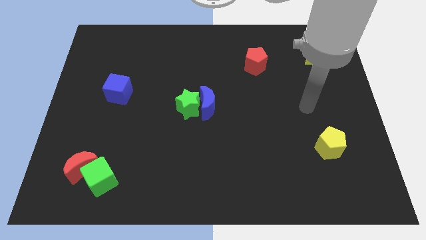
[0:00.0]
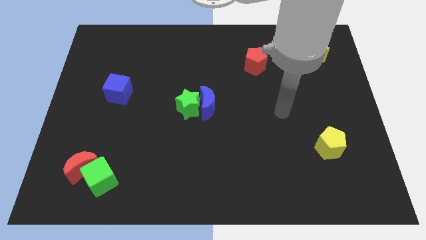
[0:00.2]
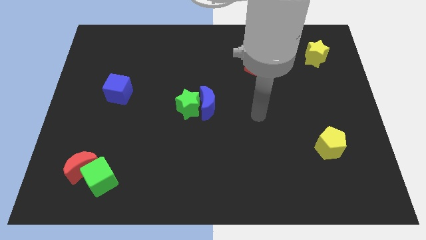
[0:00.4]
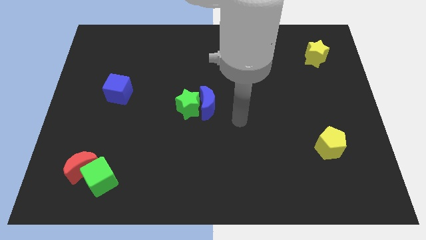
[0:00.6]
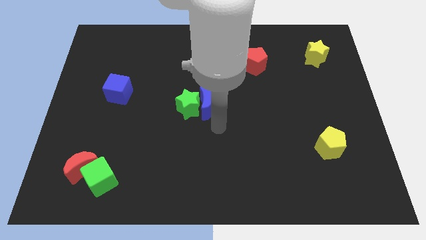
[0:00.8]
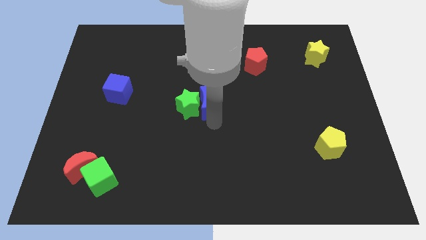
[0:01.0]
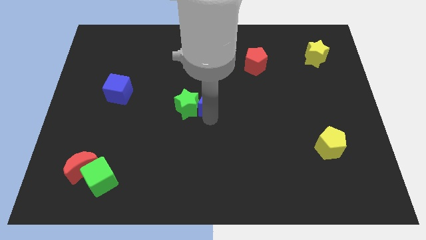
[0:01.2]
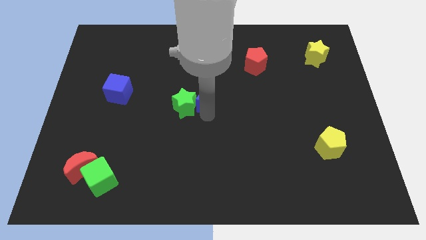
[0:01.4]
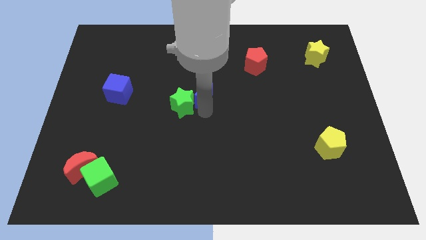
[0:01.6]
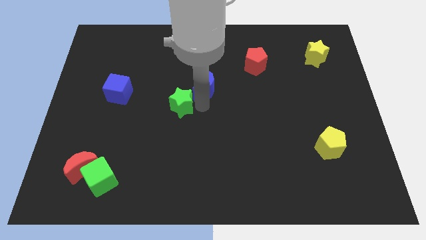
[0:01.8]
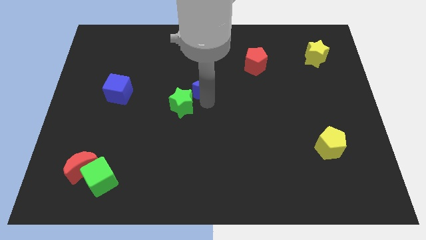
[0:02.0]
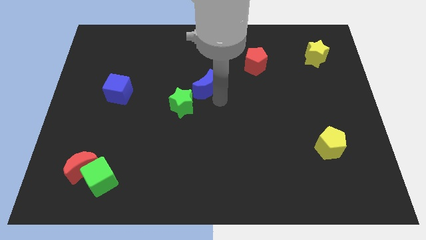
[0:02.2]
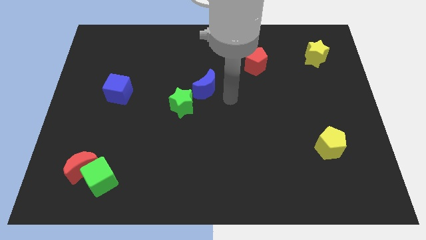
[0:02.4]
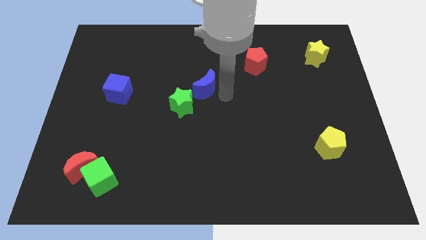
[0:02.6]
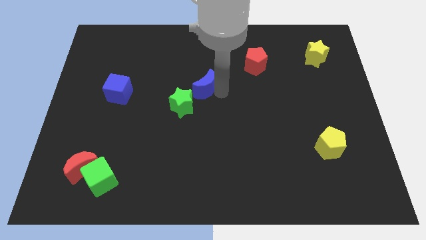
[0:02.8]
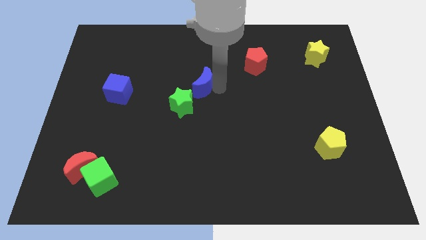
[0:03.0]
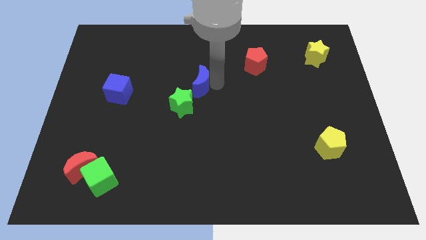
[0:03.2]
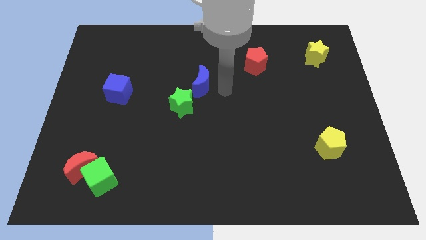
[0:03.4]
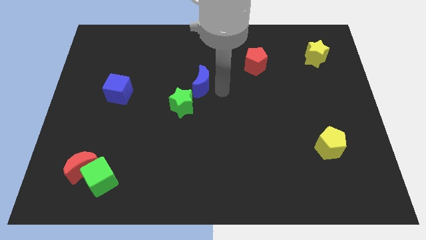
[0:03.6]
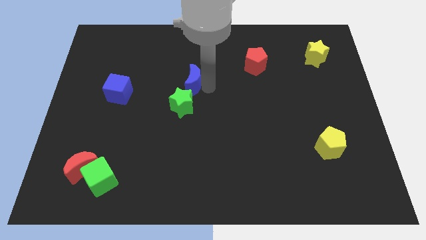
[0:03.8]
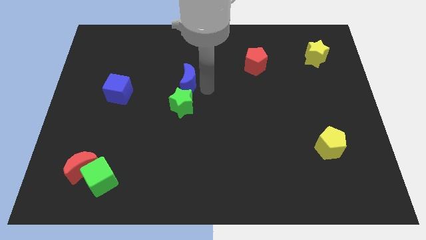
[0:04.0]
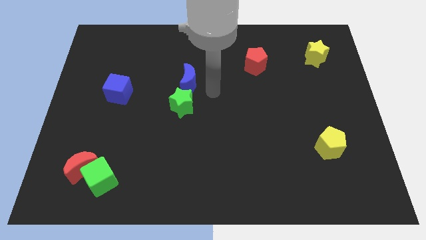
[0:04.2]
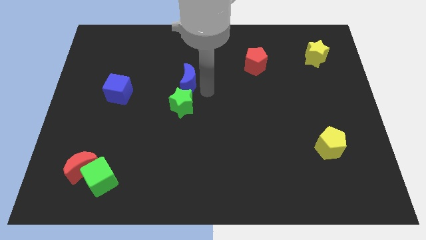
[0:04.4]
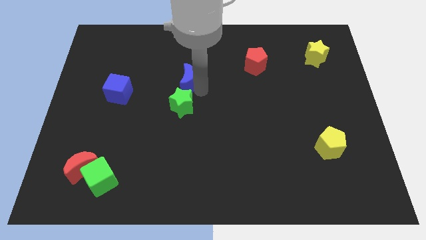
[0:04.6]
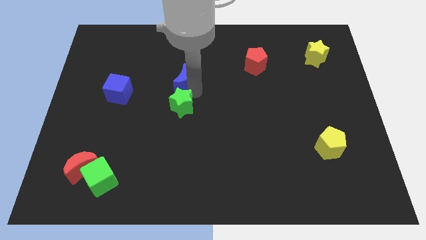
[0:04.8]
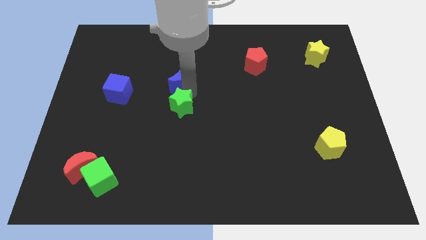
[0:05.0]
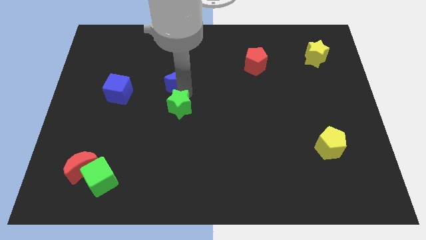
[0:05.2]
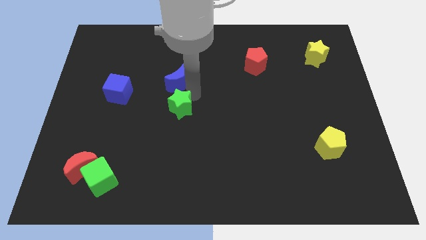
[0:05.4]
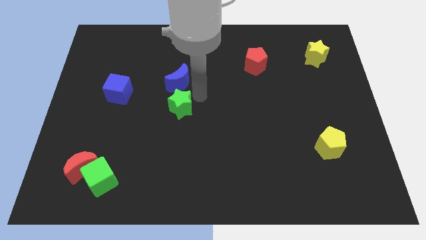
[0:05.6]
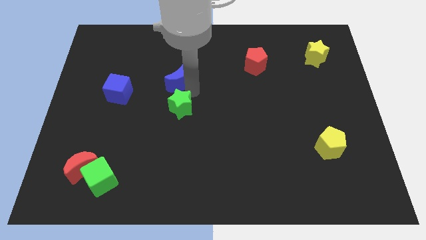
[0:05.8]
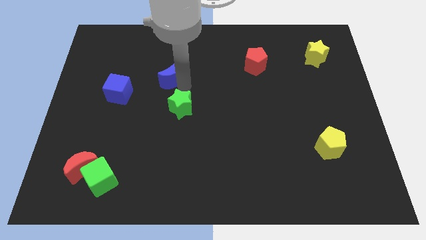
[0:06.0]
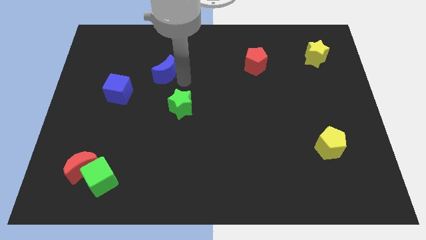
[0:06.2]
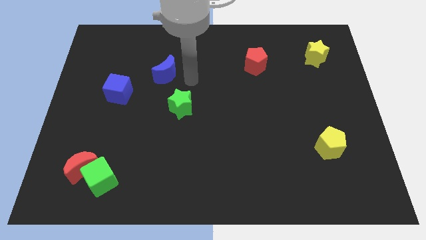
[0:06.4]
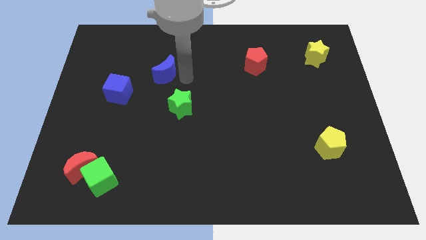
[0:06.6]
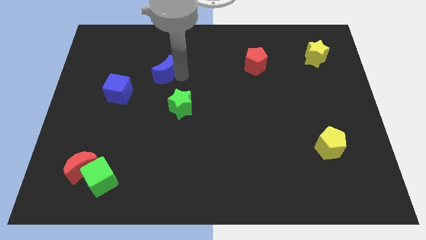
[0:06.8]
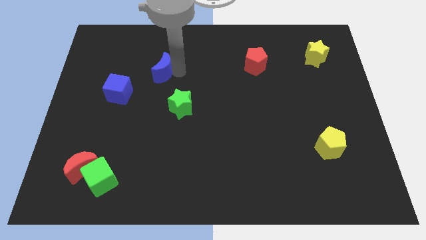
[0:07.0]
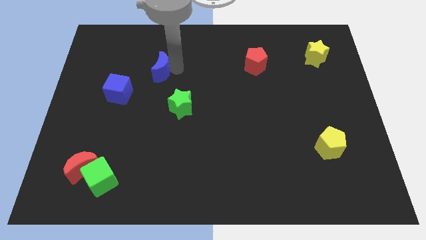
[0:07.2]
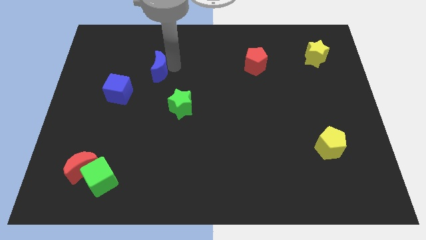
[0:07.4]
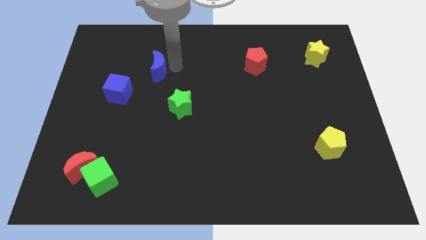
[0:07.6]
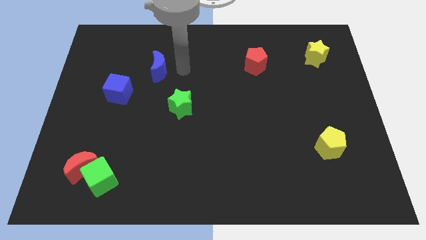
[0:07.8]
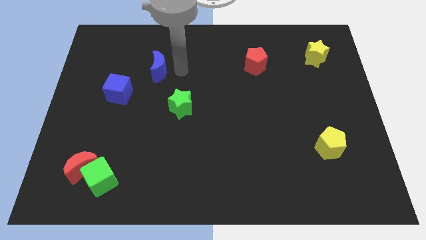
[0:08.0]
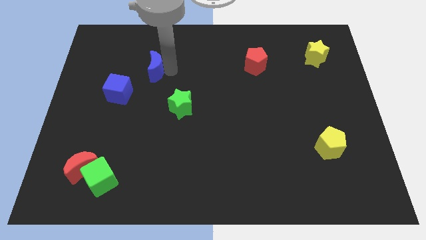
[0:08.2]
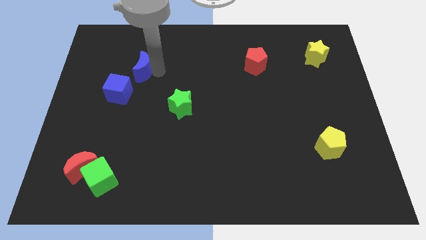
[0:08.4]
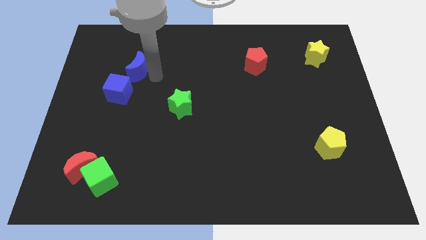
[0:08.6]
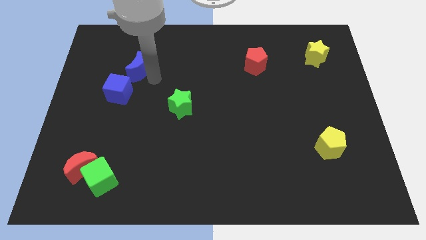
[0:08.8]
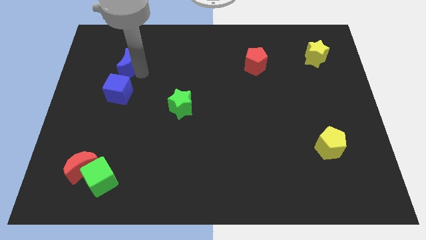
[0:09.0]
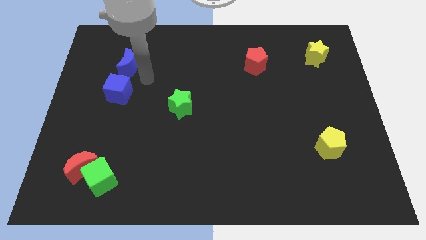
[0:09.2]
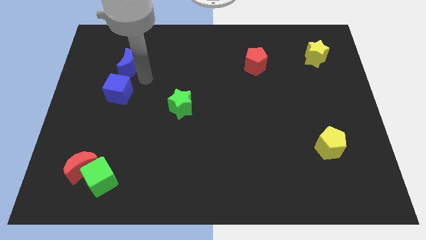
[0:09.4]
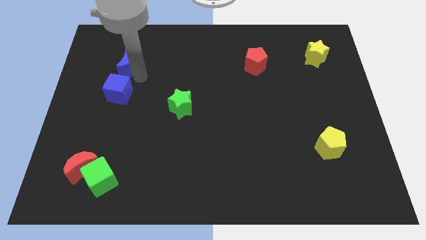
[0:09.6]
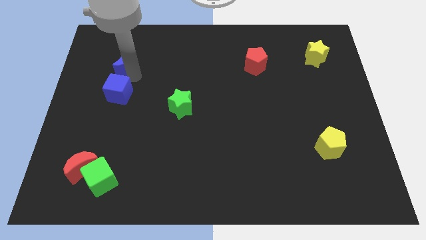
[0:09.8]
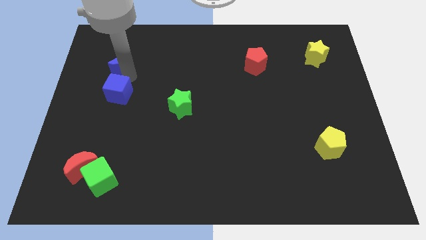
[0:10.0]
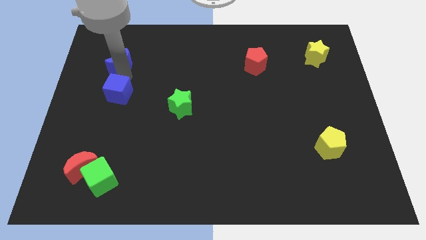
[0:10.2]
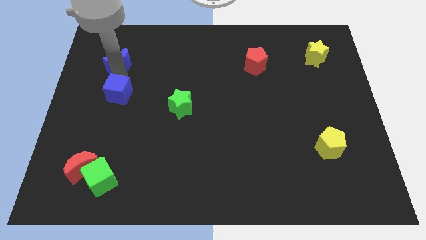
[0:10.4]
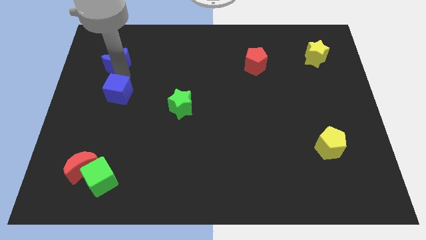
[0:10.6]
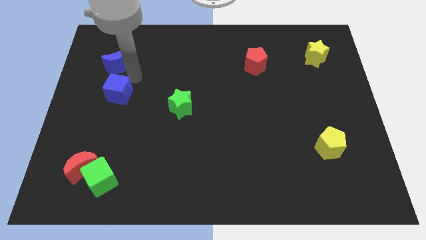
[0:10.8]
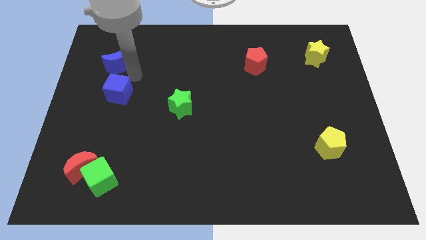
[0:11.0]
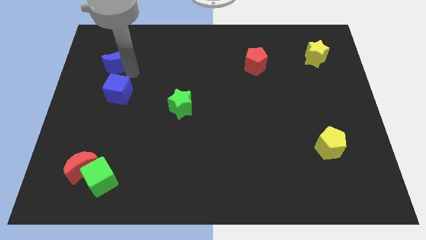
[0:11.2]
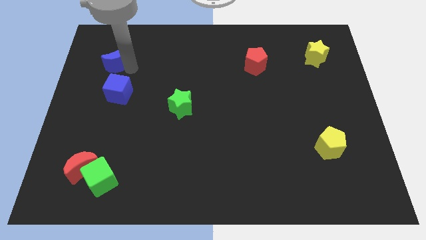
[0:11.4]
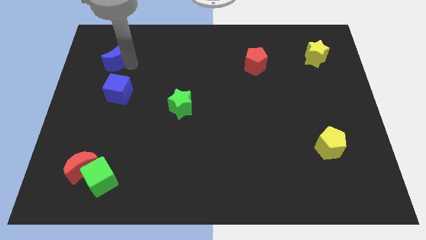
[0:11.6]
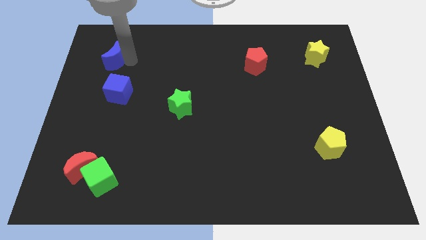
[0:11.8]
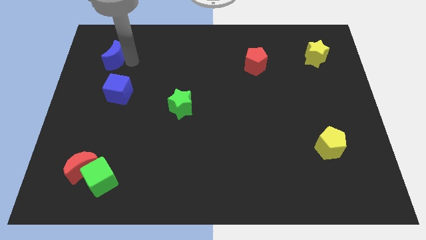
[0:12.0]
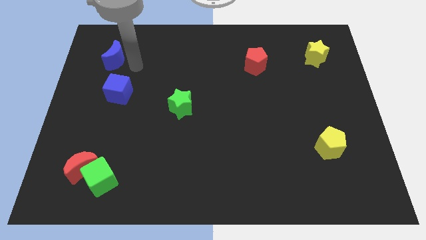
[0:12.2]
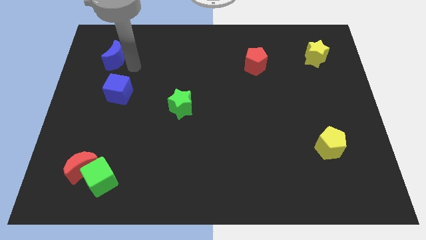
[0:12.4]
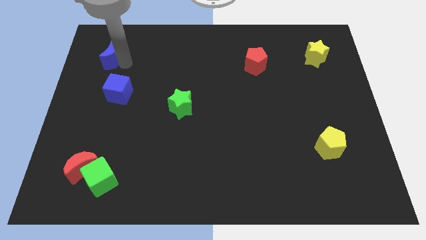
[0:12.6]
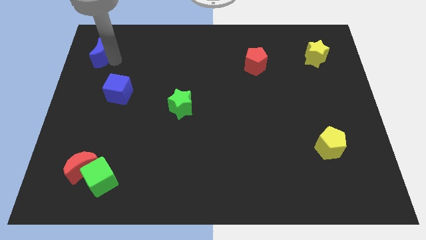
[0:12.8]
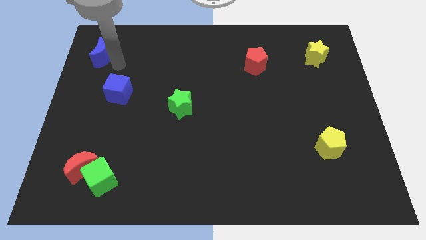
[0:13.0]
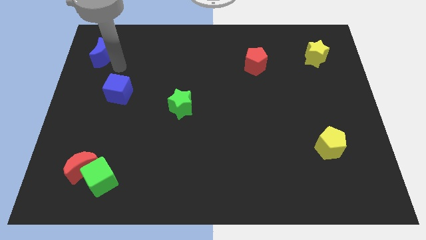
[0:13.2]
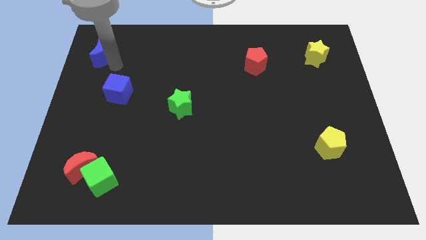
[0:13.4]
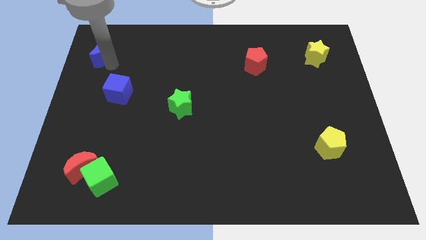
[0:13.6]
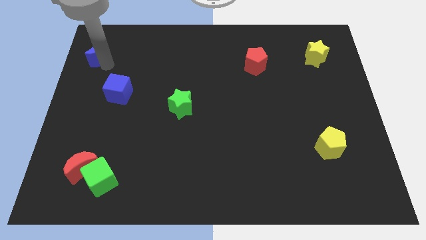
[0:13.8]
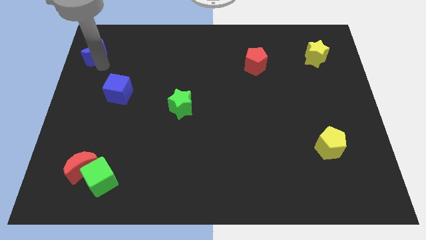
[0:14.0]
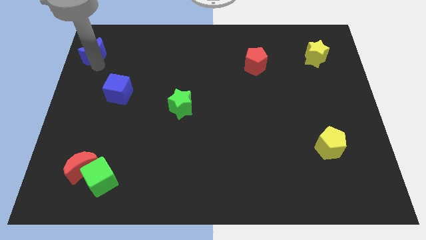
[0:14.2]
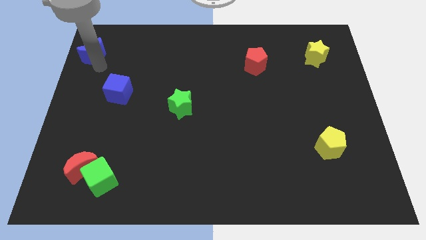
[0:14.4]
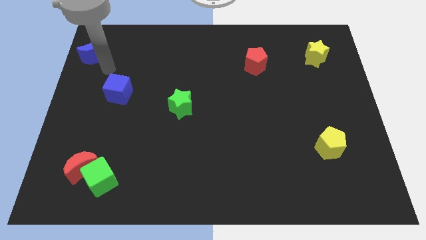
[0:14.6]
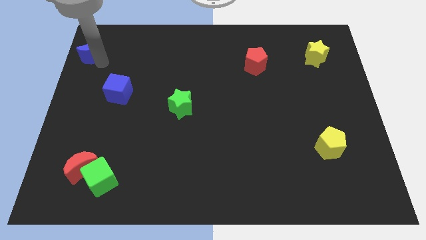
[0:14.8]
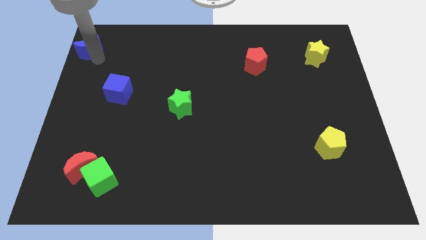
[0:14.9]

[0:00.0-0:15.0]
put the blue moon to the top left corner
